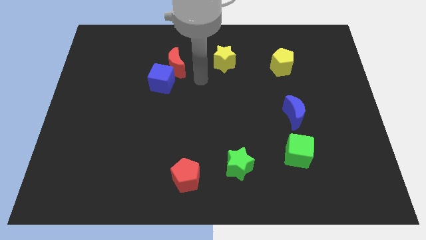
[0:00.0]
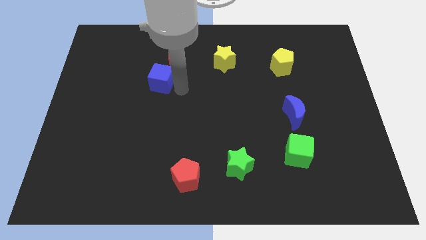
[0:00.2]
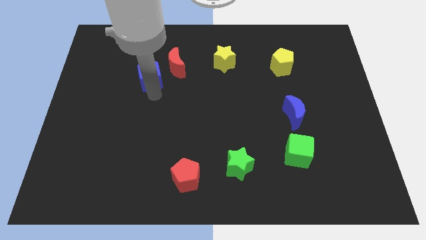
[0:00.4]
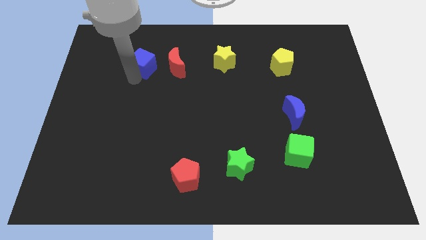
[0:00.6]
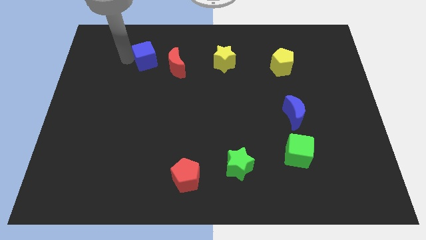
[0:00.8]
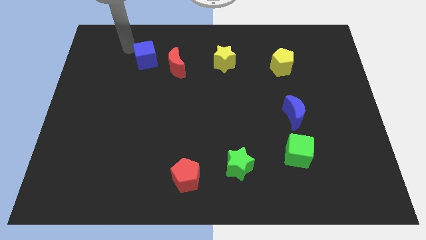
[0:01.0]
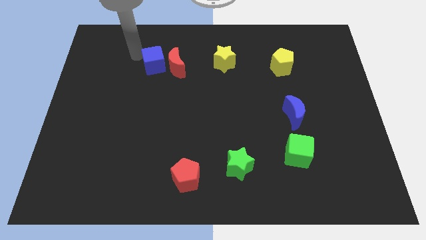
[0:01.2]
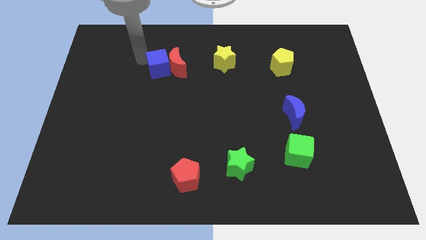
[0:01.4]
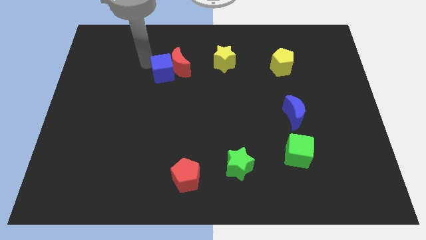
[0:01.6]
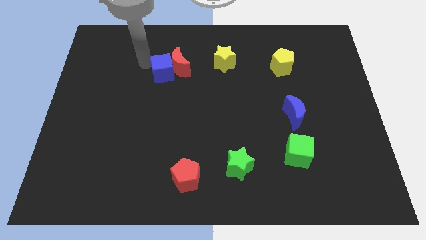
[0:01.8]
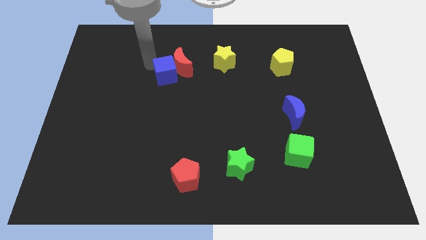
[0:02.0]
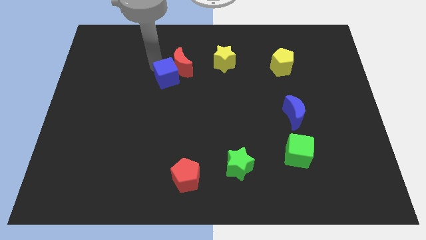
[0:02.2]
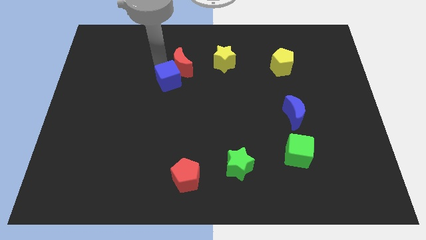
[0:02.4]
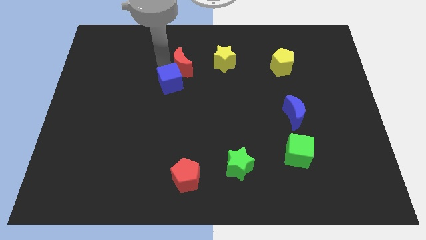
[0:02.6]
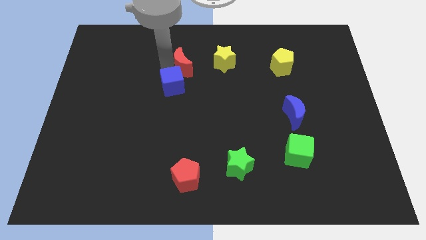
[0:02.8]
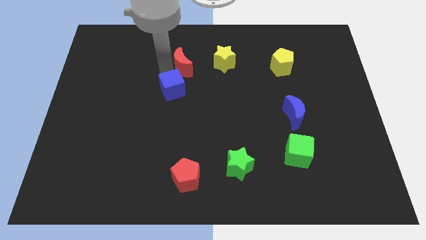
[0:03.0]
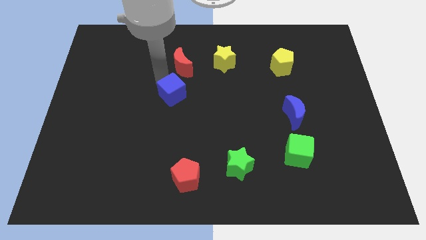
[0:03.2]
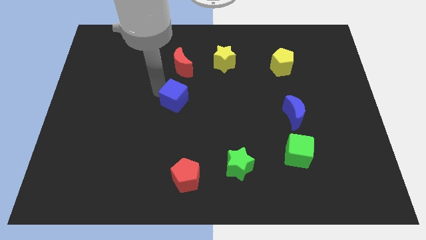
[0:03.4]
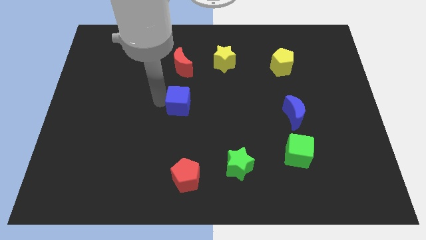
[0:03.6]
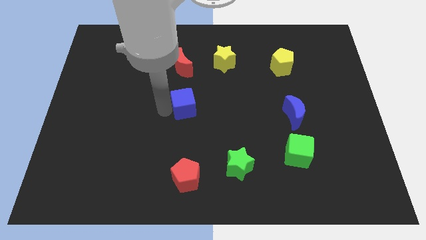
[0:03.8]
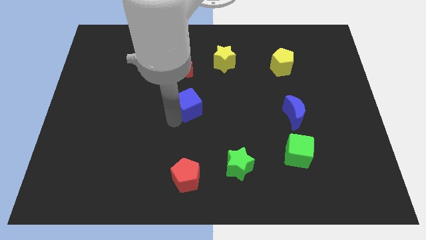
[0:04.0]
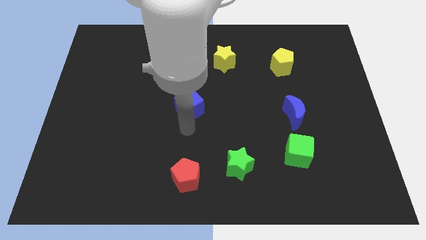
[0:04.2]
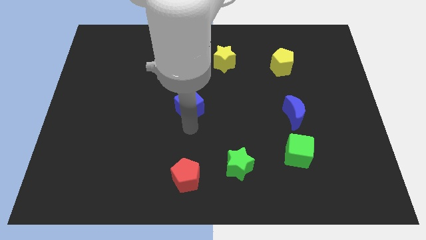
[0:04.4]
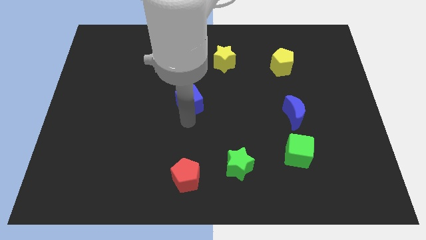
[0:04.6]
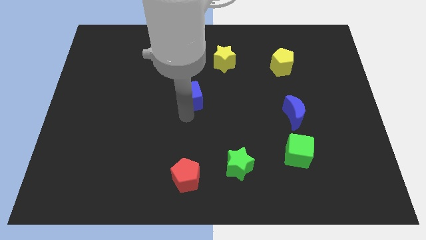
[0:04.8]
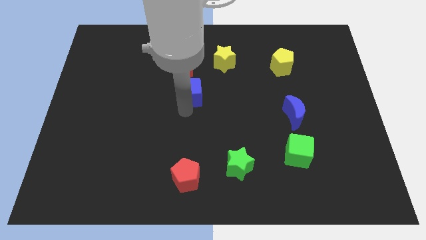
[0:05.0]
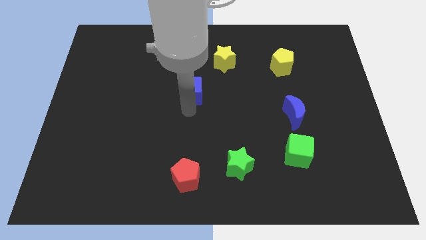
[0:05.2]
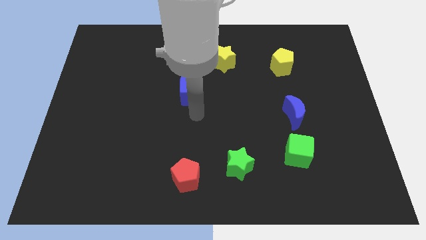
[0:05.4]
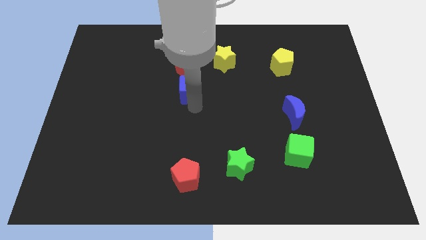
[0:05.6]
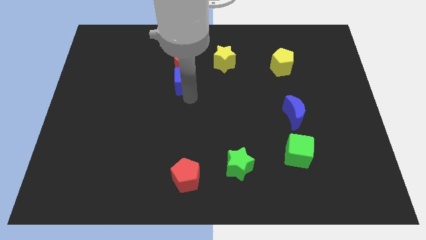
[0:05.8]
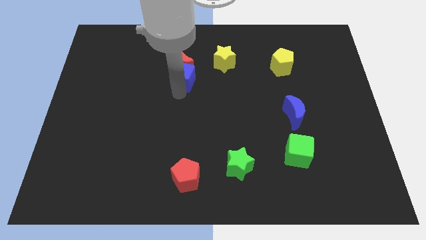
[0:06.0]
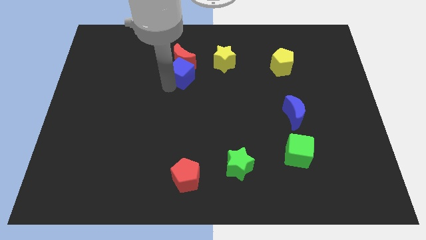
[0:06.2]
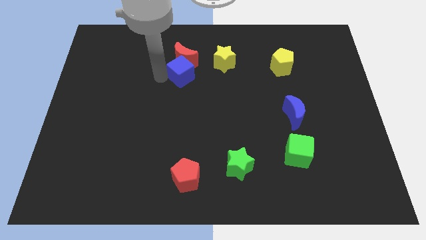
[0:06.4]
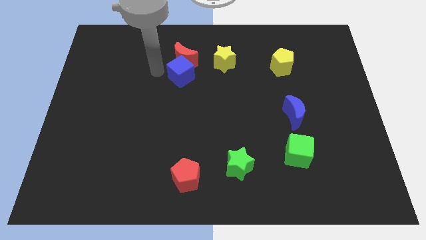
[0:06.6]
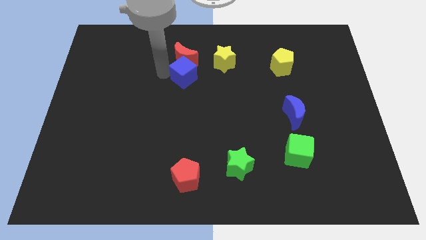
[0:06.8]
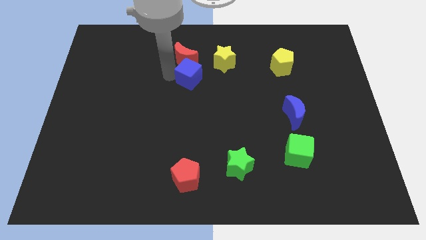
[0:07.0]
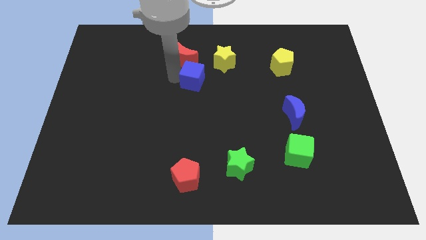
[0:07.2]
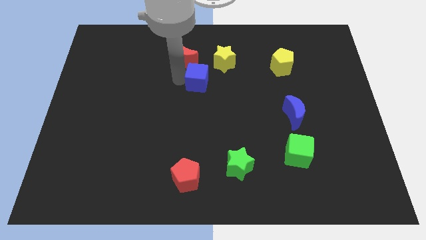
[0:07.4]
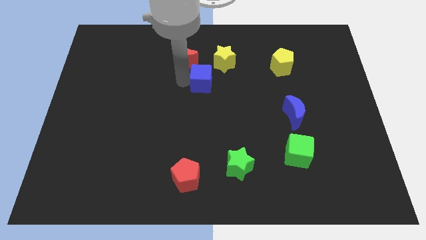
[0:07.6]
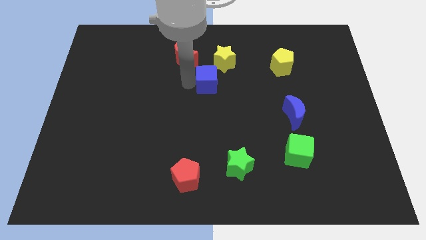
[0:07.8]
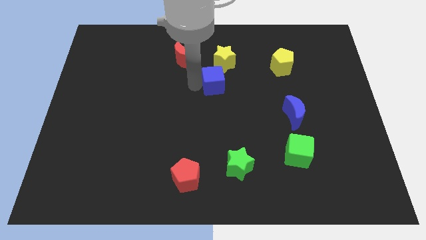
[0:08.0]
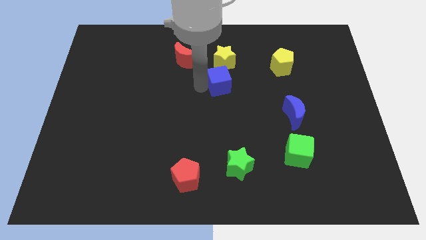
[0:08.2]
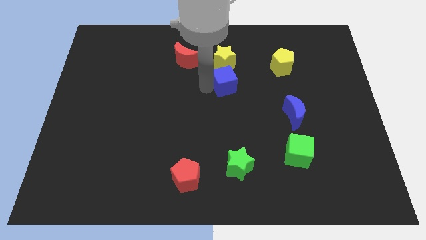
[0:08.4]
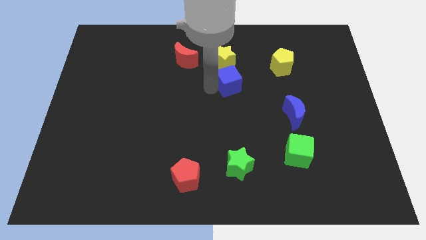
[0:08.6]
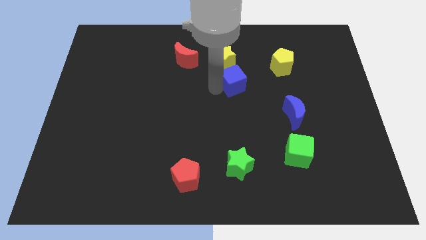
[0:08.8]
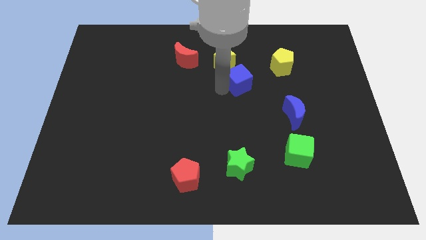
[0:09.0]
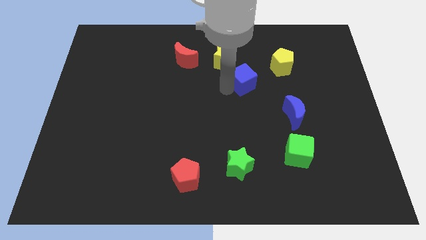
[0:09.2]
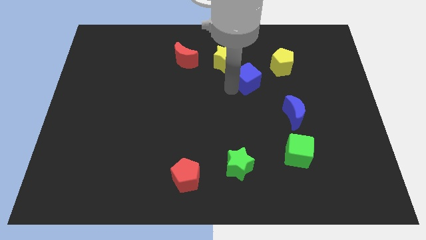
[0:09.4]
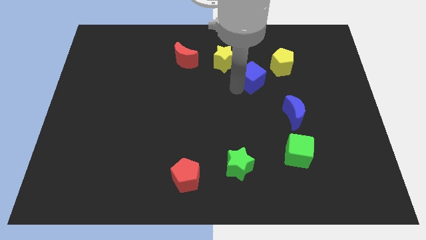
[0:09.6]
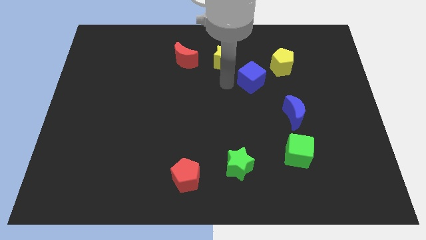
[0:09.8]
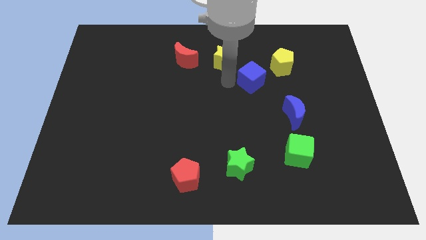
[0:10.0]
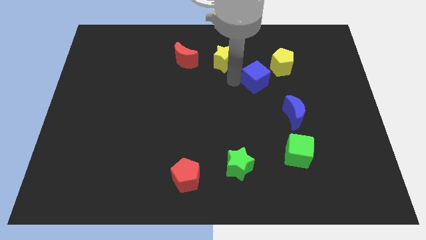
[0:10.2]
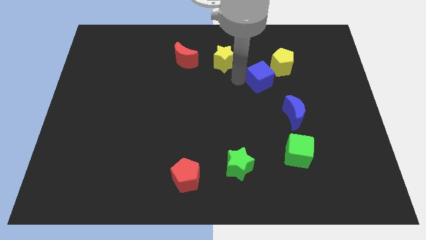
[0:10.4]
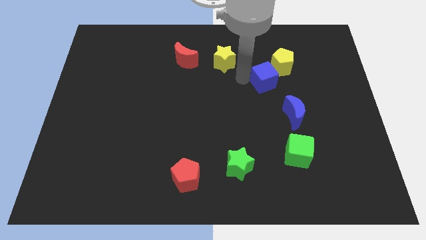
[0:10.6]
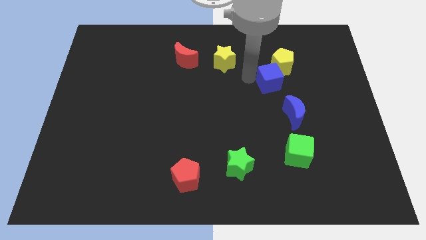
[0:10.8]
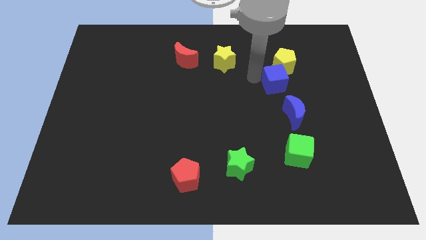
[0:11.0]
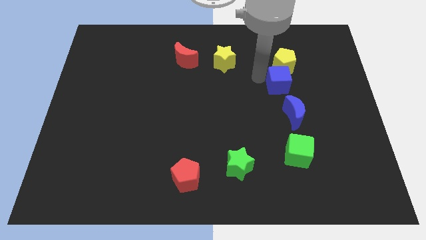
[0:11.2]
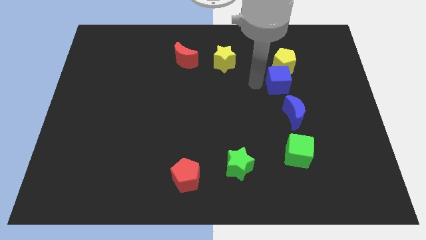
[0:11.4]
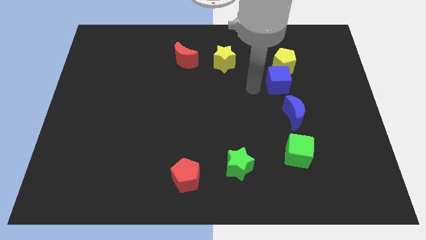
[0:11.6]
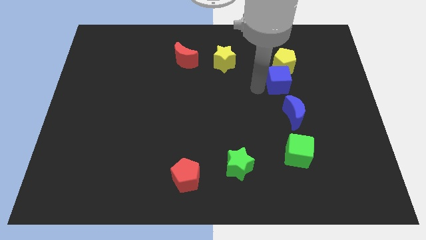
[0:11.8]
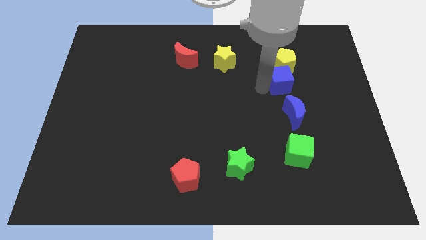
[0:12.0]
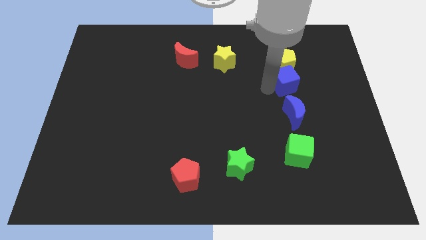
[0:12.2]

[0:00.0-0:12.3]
slide the blue cube diagonally down and to the right of the yellow pentagon

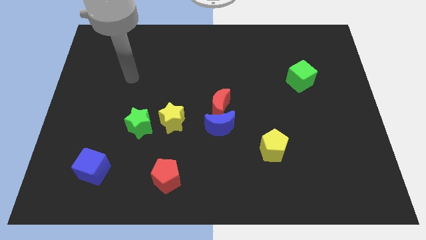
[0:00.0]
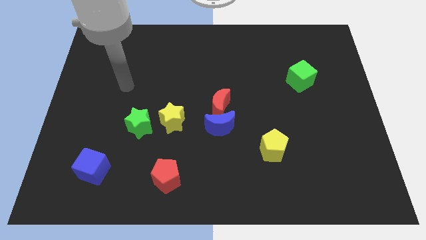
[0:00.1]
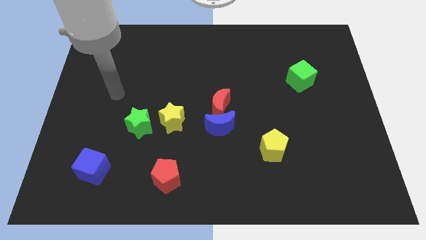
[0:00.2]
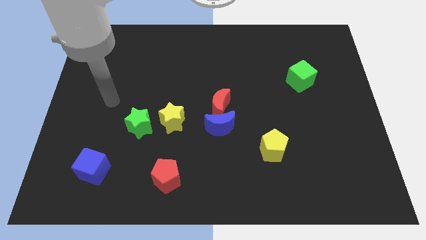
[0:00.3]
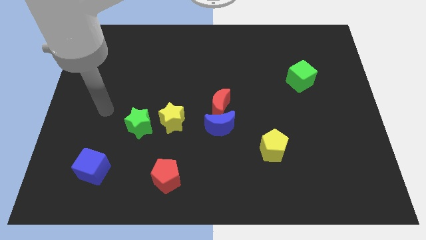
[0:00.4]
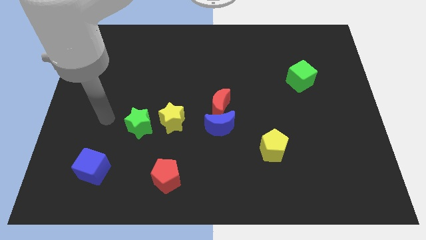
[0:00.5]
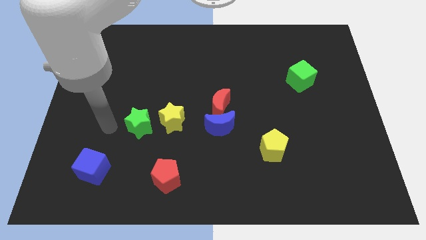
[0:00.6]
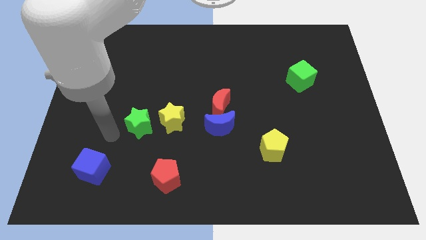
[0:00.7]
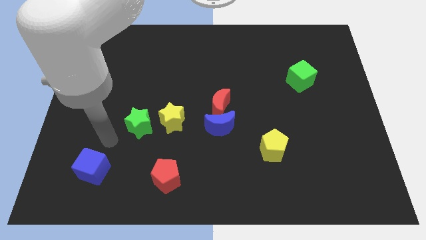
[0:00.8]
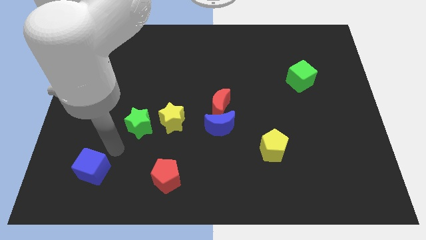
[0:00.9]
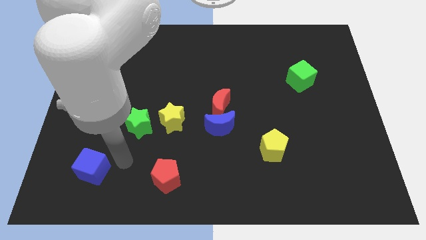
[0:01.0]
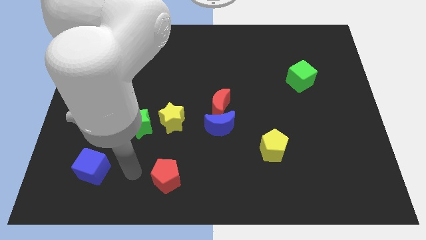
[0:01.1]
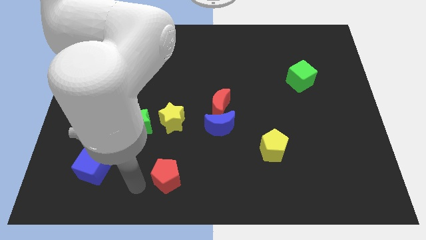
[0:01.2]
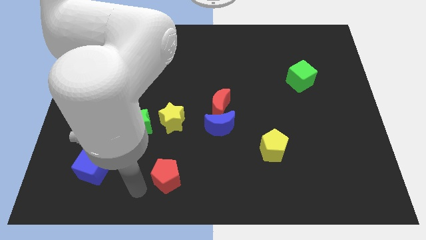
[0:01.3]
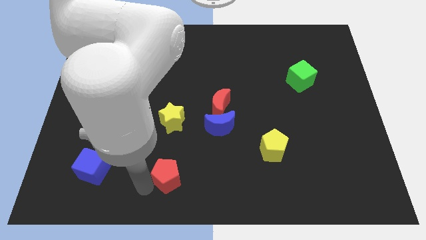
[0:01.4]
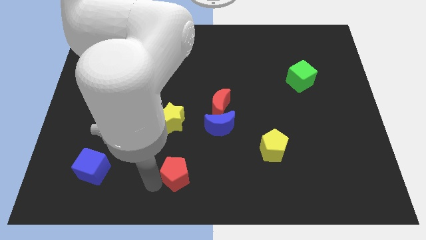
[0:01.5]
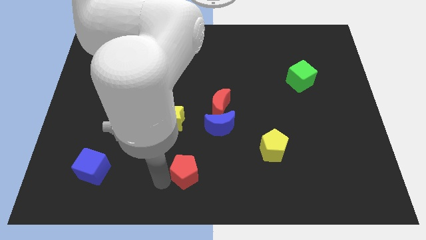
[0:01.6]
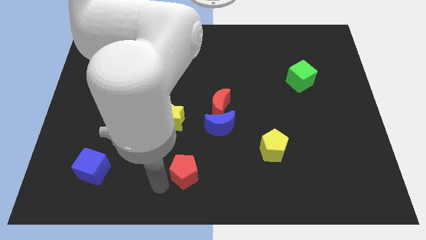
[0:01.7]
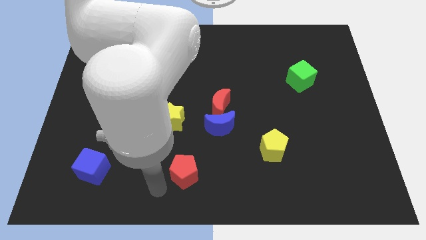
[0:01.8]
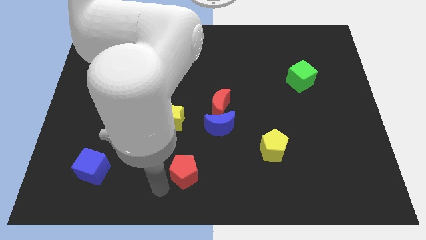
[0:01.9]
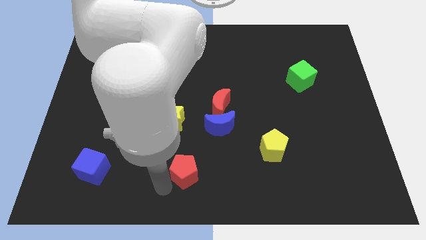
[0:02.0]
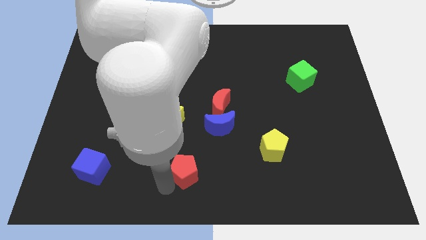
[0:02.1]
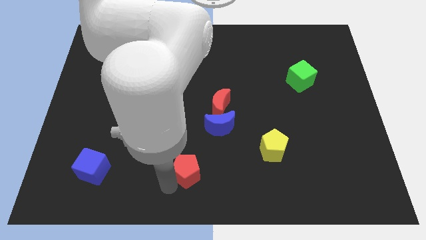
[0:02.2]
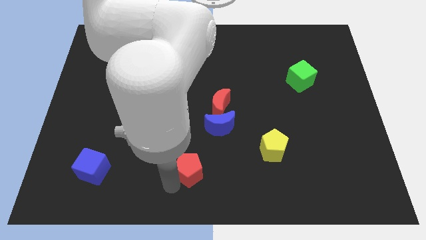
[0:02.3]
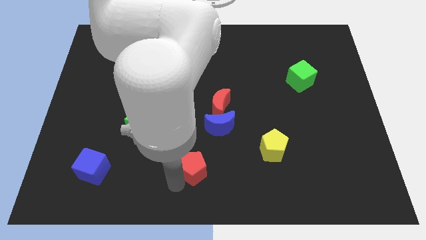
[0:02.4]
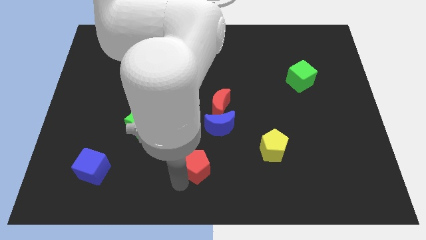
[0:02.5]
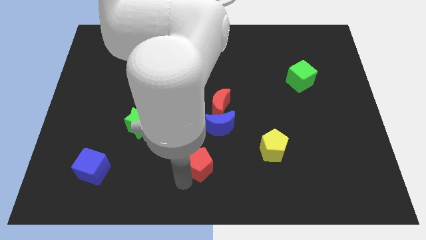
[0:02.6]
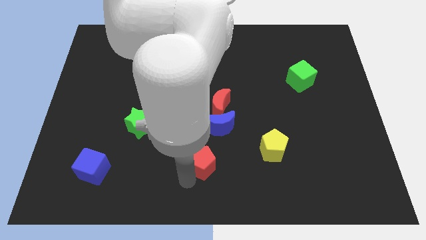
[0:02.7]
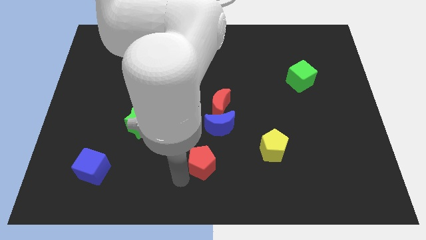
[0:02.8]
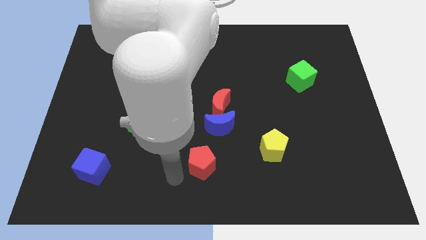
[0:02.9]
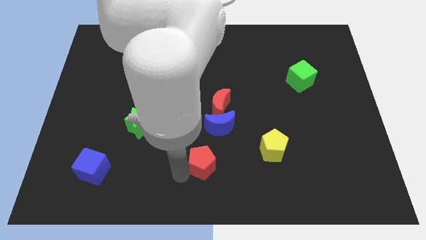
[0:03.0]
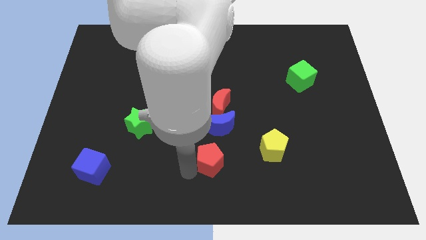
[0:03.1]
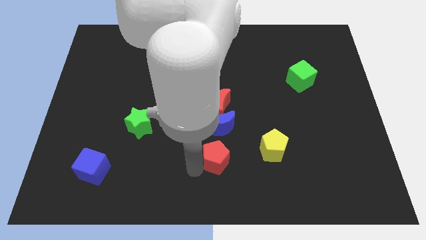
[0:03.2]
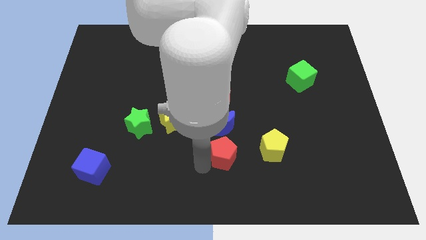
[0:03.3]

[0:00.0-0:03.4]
slide the red pentagon to the bottom right of the blue moon
